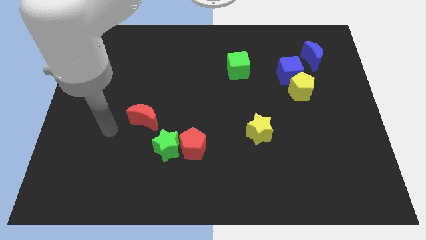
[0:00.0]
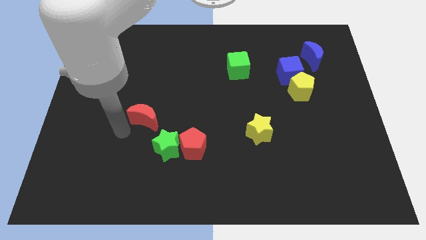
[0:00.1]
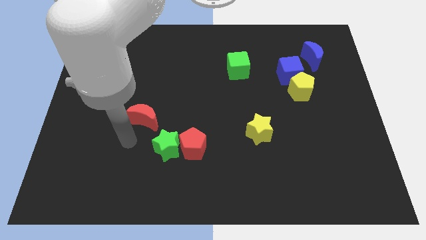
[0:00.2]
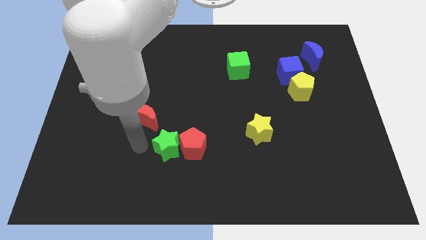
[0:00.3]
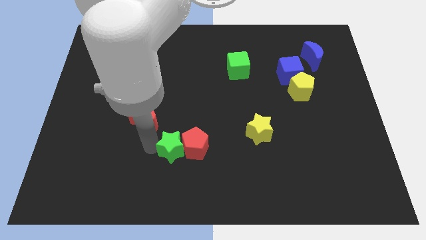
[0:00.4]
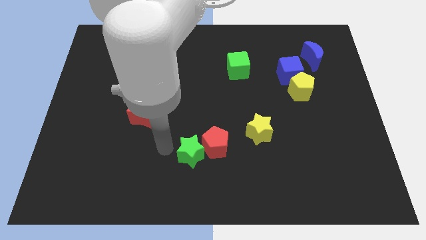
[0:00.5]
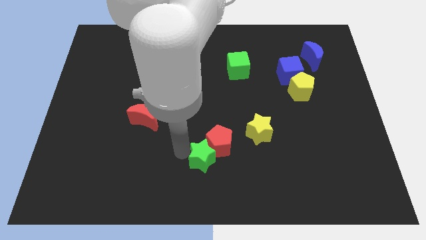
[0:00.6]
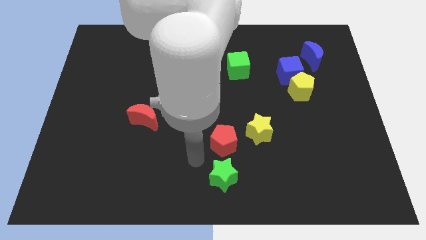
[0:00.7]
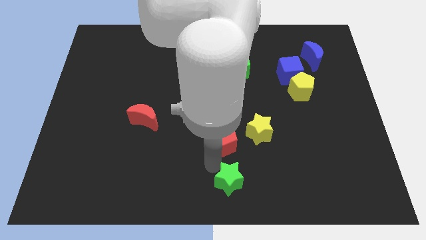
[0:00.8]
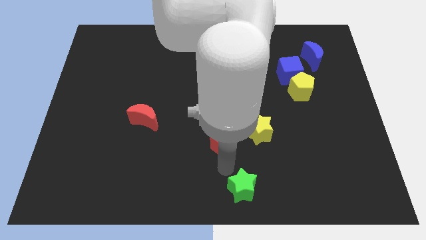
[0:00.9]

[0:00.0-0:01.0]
pull the red pentagon apart from the green star

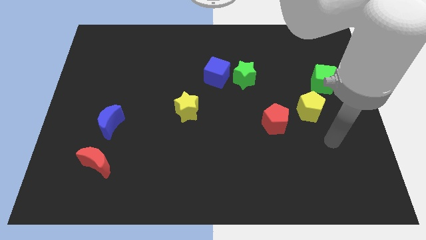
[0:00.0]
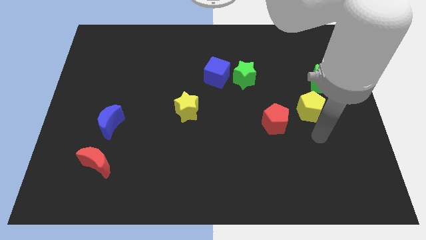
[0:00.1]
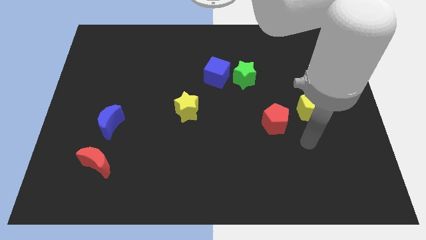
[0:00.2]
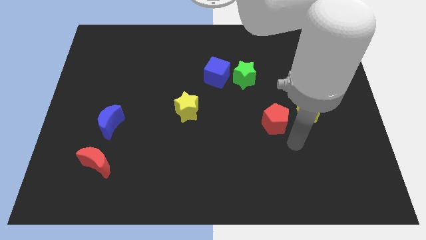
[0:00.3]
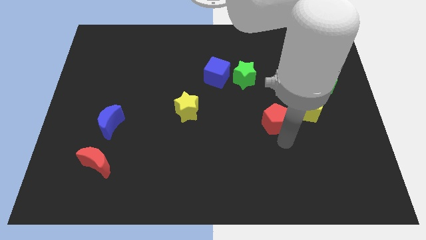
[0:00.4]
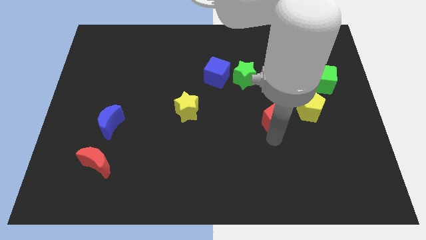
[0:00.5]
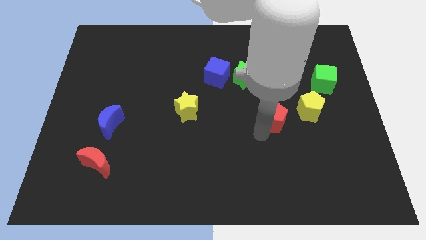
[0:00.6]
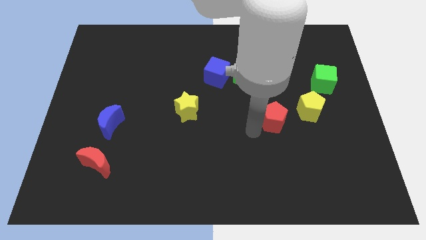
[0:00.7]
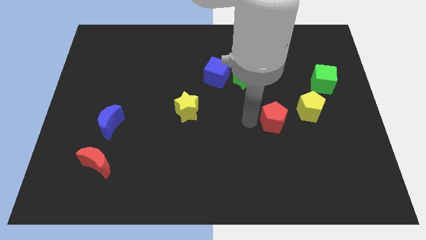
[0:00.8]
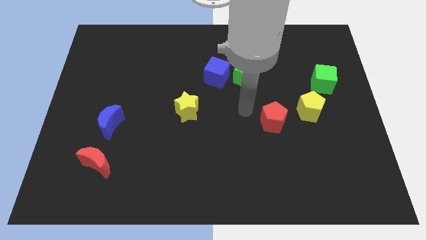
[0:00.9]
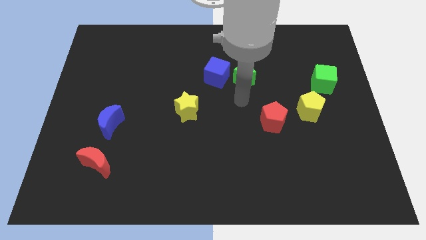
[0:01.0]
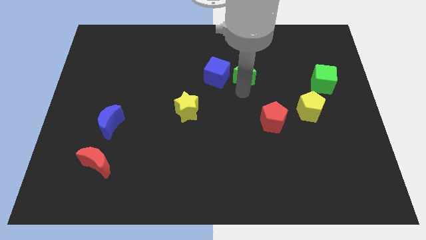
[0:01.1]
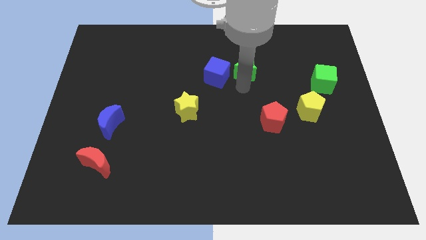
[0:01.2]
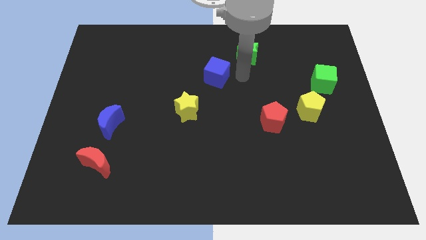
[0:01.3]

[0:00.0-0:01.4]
separate the blue cube from the green star

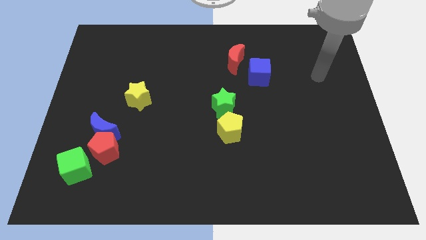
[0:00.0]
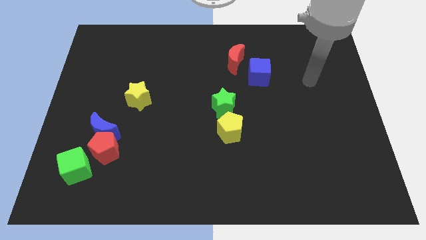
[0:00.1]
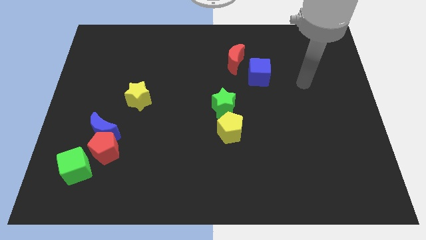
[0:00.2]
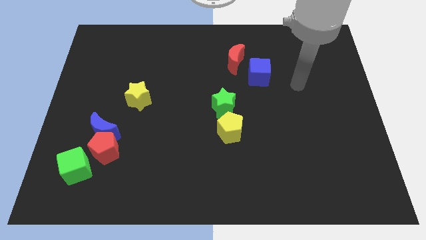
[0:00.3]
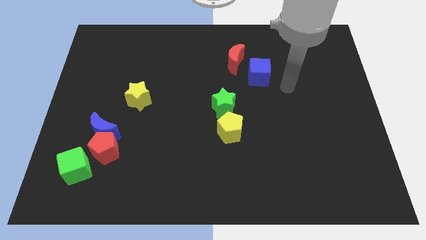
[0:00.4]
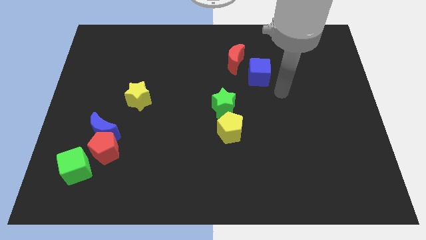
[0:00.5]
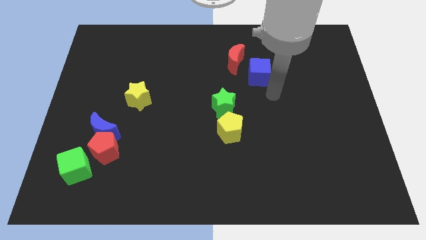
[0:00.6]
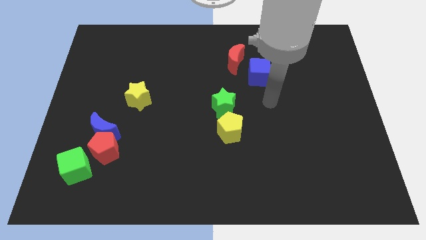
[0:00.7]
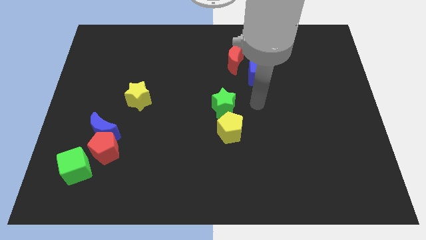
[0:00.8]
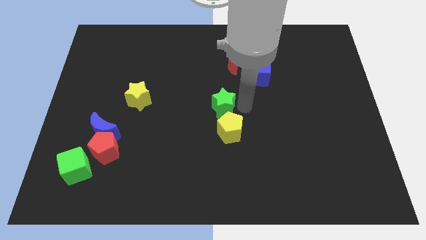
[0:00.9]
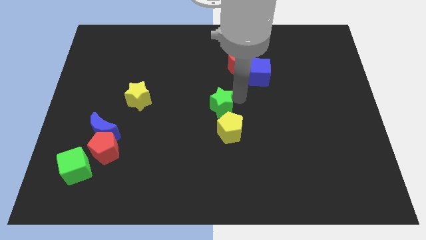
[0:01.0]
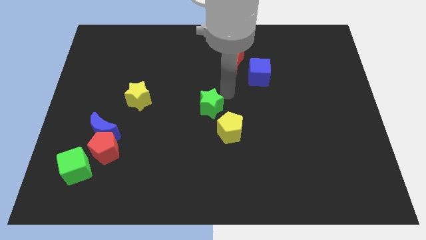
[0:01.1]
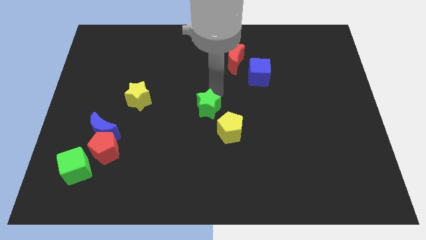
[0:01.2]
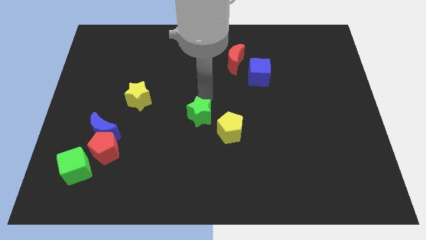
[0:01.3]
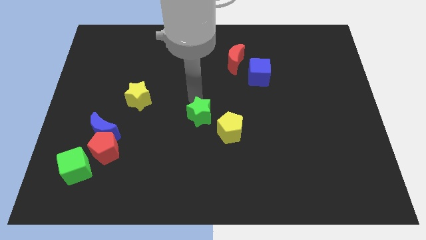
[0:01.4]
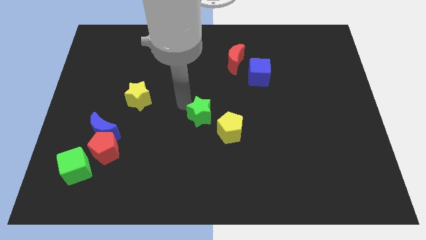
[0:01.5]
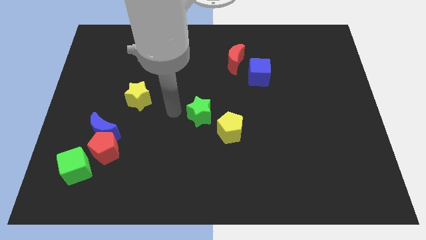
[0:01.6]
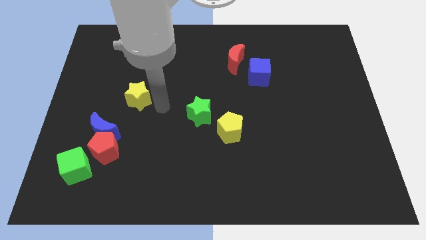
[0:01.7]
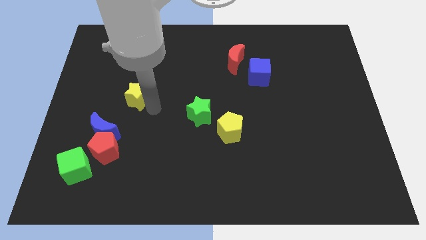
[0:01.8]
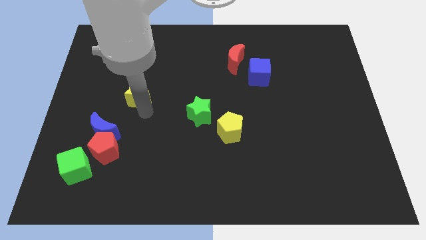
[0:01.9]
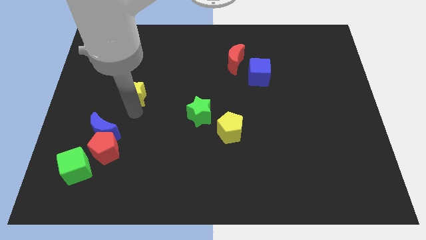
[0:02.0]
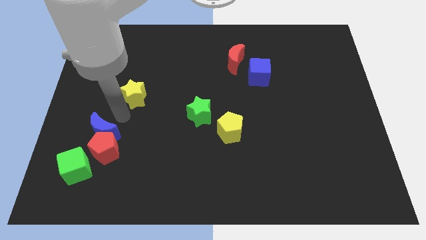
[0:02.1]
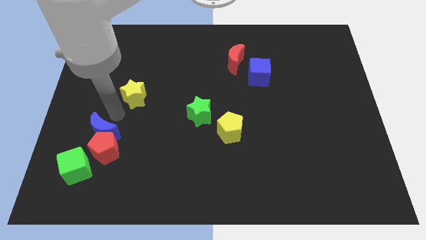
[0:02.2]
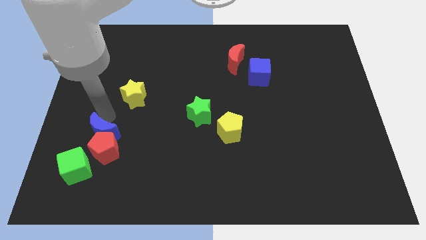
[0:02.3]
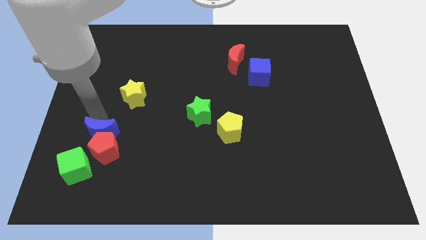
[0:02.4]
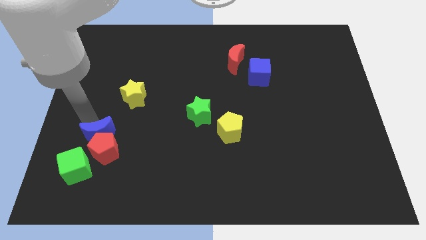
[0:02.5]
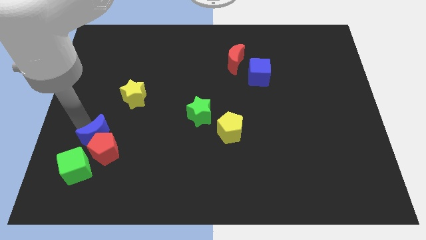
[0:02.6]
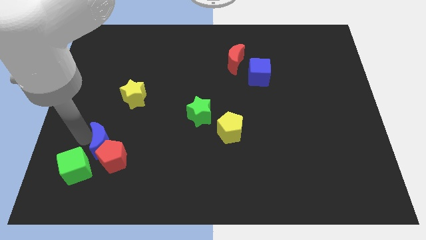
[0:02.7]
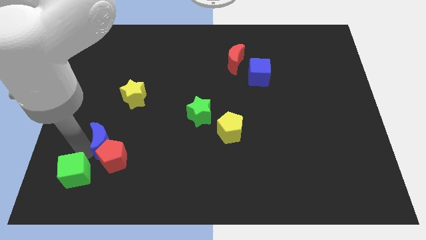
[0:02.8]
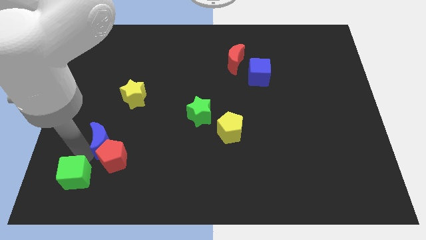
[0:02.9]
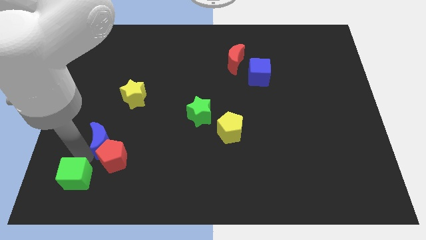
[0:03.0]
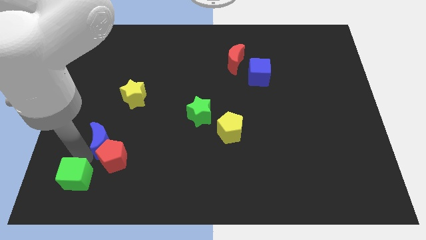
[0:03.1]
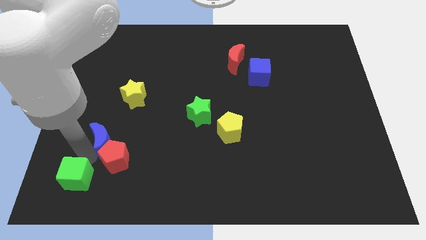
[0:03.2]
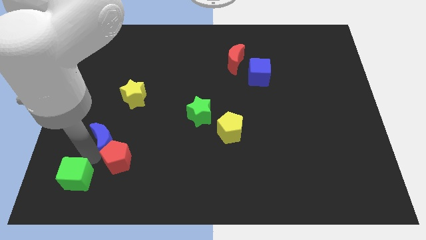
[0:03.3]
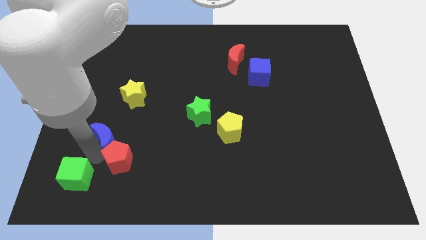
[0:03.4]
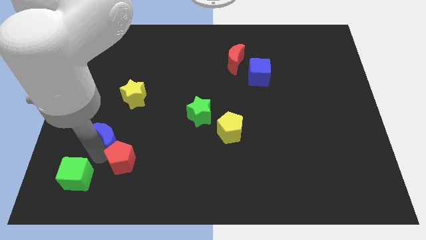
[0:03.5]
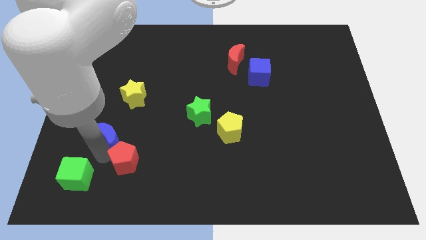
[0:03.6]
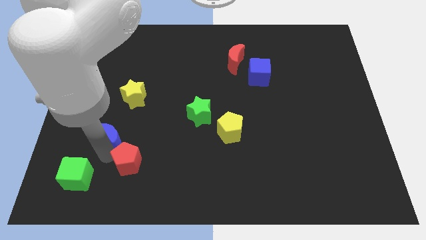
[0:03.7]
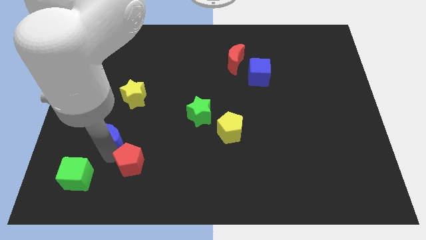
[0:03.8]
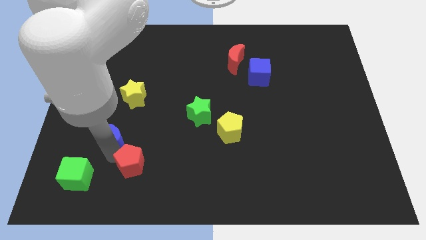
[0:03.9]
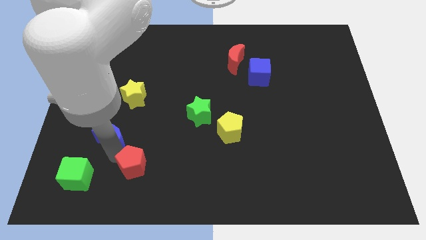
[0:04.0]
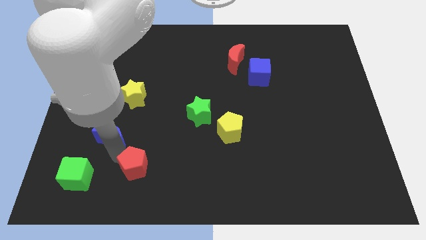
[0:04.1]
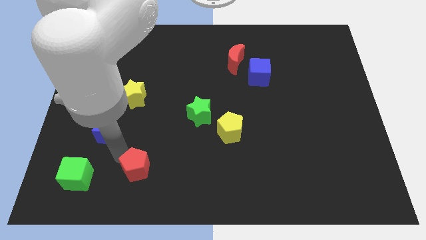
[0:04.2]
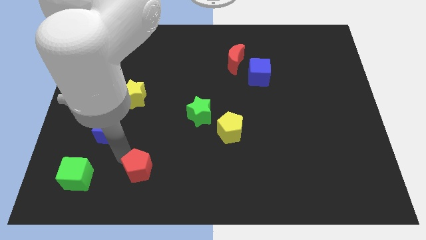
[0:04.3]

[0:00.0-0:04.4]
move the red pentagon away from the blue moon and green cube

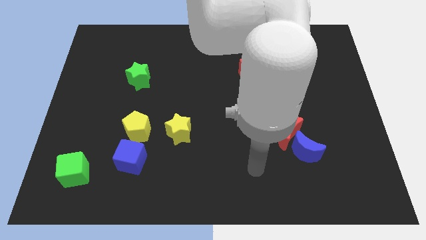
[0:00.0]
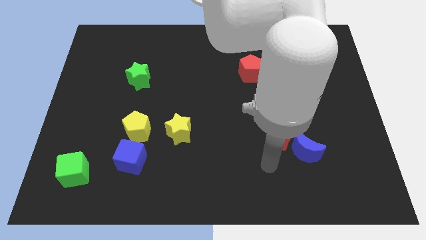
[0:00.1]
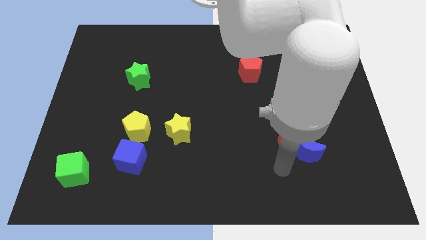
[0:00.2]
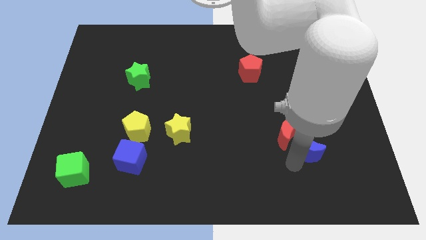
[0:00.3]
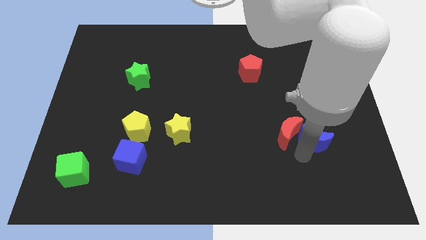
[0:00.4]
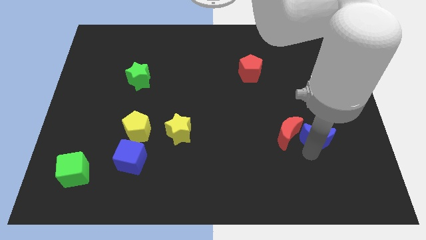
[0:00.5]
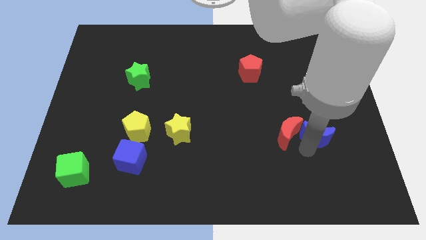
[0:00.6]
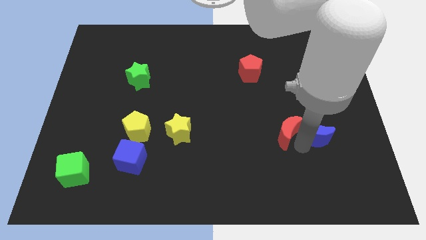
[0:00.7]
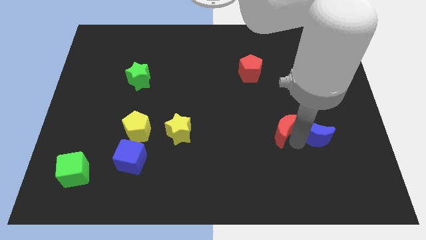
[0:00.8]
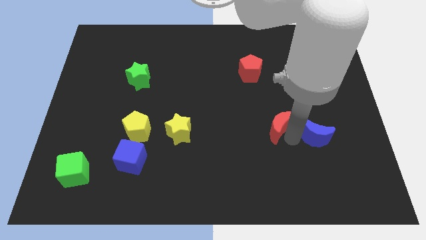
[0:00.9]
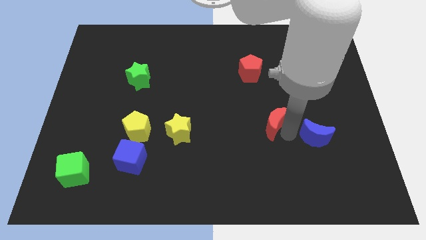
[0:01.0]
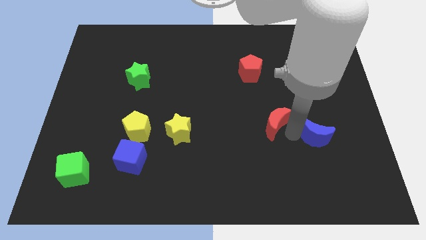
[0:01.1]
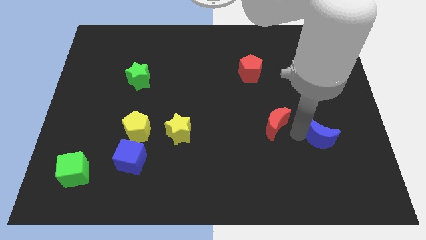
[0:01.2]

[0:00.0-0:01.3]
pull the red moon apart from the blue moon

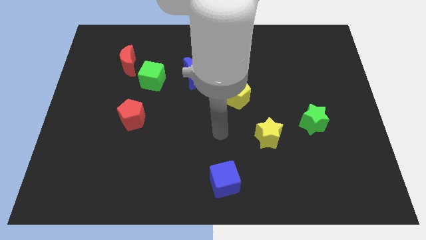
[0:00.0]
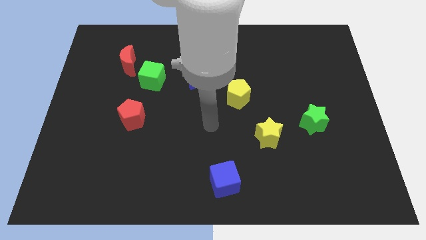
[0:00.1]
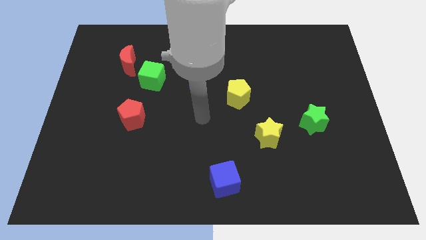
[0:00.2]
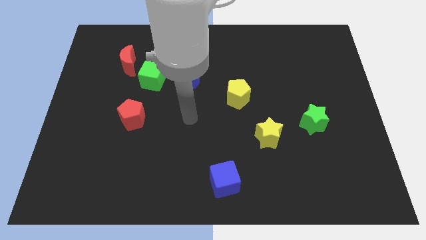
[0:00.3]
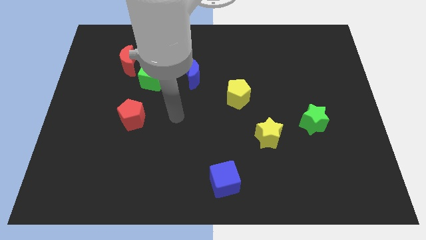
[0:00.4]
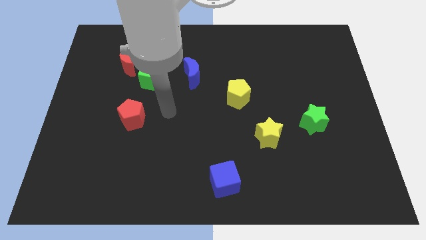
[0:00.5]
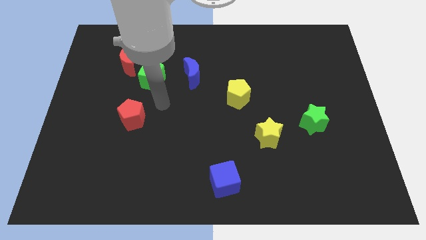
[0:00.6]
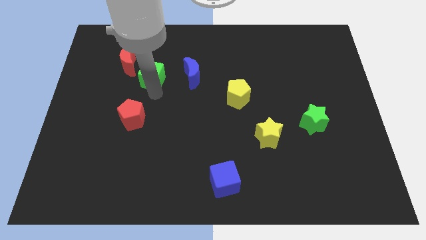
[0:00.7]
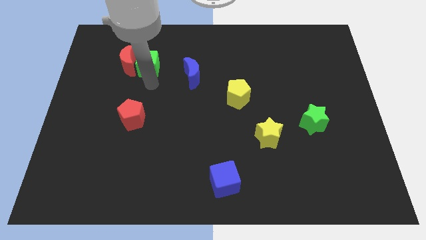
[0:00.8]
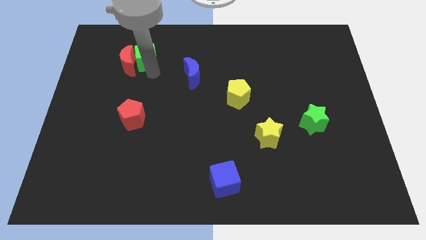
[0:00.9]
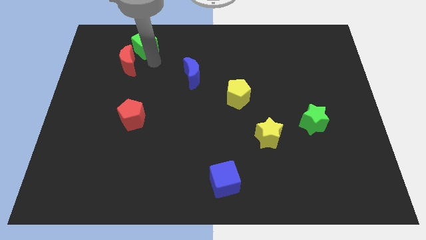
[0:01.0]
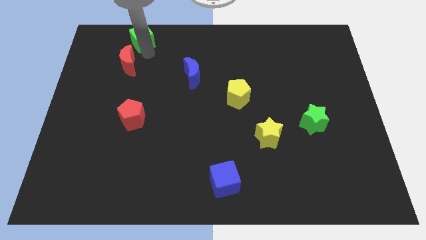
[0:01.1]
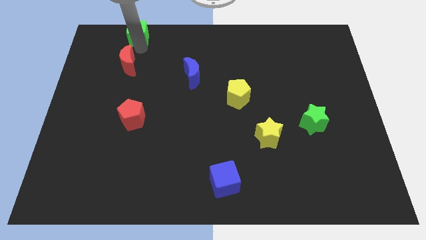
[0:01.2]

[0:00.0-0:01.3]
pull the red moon apart from the green cube
